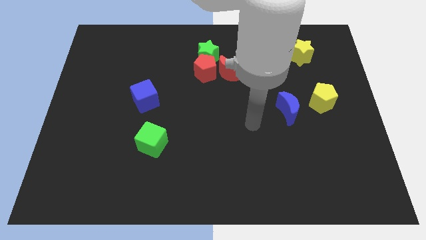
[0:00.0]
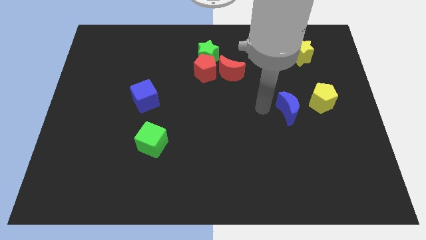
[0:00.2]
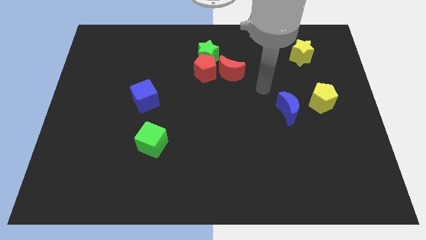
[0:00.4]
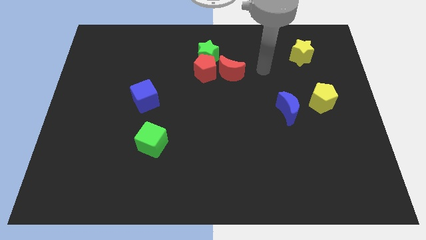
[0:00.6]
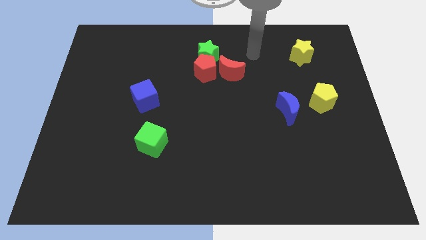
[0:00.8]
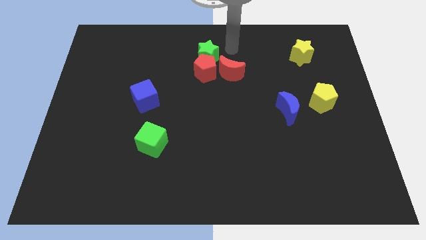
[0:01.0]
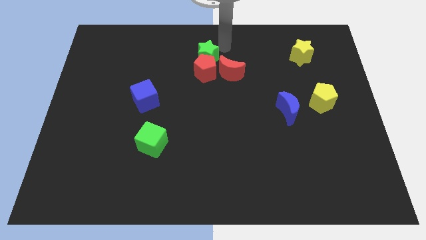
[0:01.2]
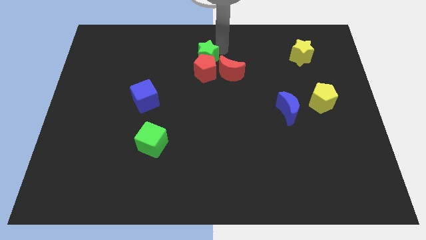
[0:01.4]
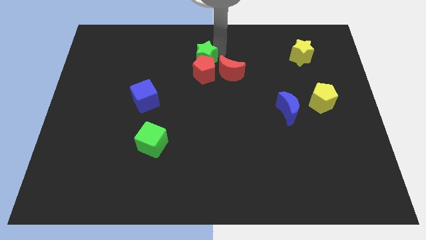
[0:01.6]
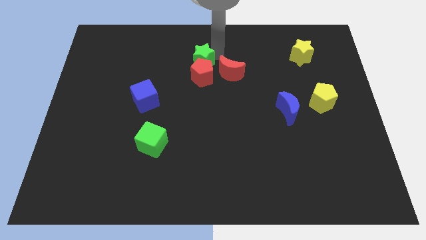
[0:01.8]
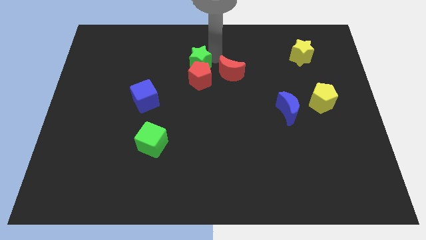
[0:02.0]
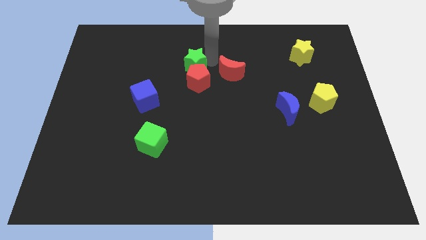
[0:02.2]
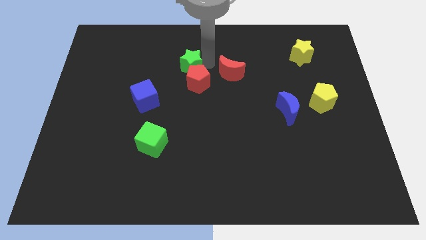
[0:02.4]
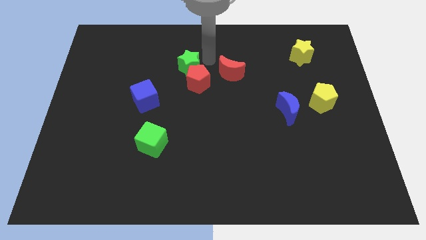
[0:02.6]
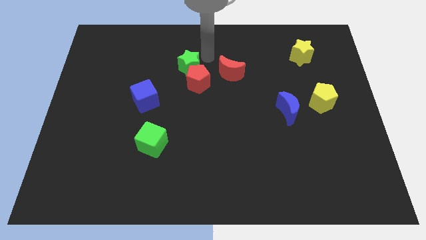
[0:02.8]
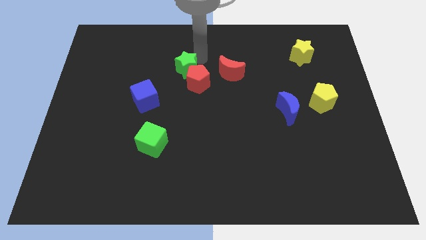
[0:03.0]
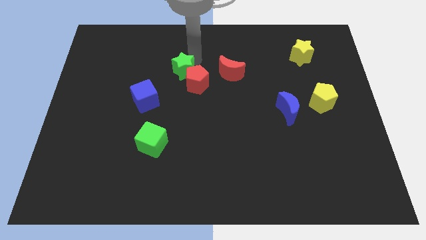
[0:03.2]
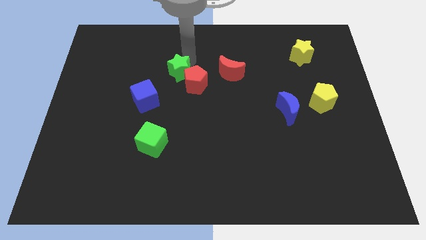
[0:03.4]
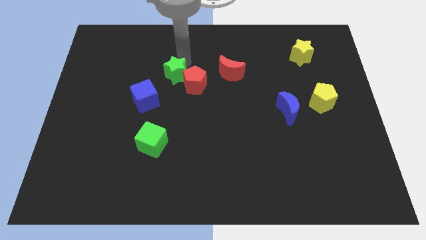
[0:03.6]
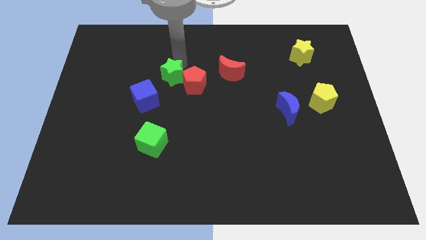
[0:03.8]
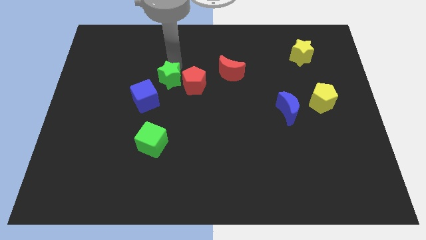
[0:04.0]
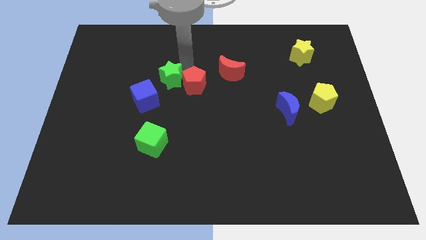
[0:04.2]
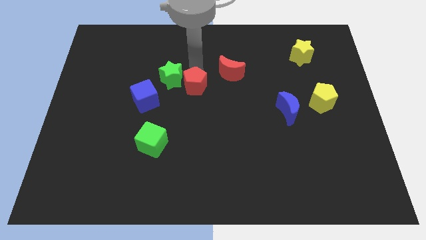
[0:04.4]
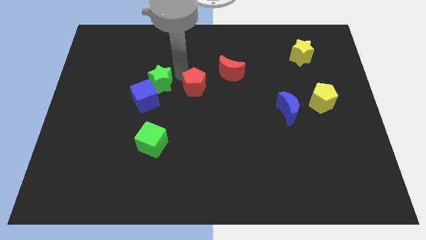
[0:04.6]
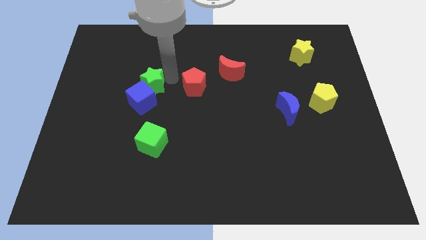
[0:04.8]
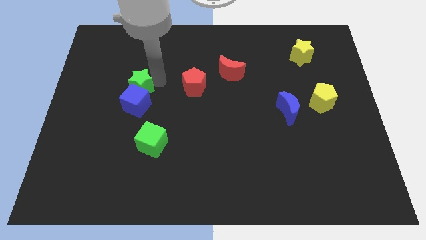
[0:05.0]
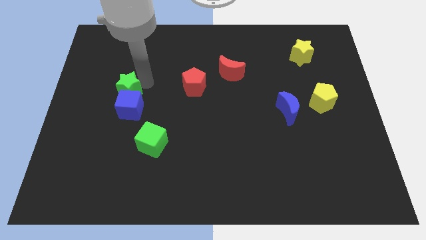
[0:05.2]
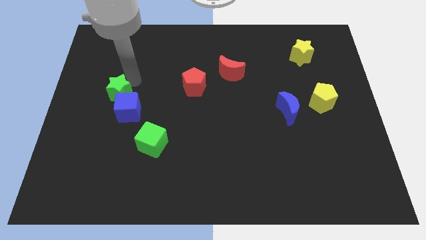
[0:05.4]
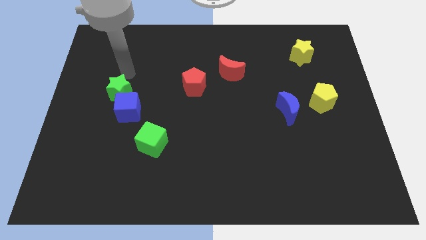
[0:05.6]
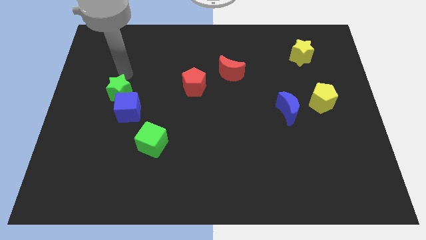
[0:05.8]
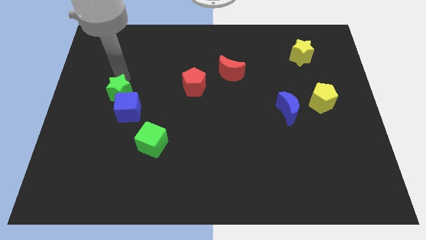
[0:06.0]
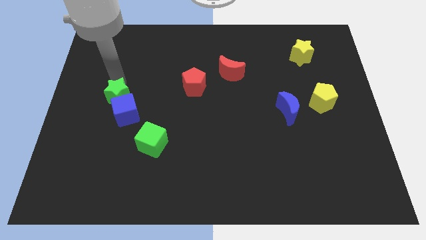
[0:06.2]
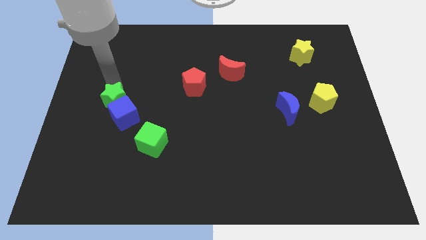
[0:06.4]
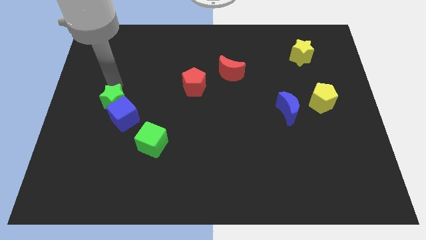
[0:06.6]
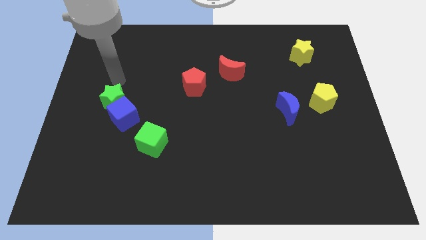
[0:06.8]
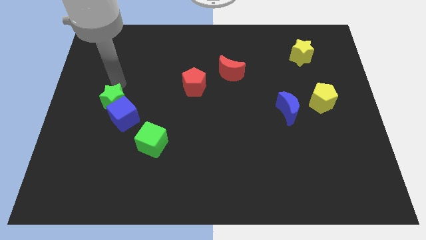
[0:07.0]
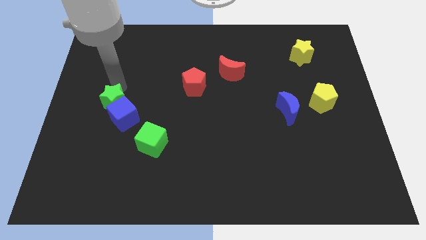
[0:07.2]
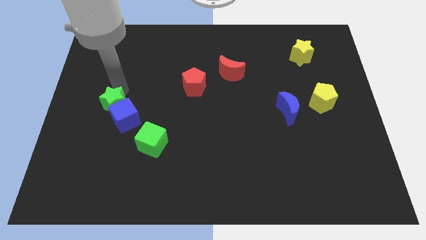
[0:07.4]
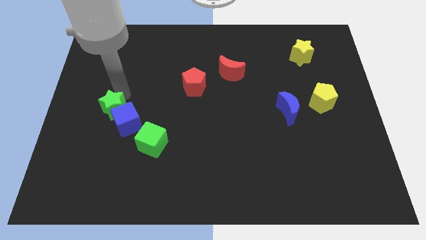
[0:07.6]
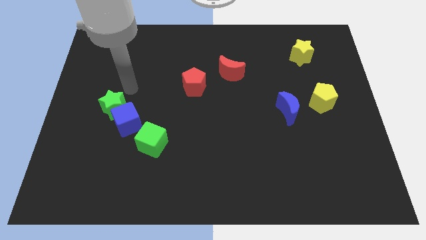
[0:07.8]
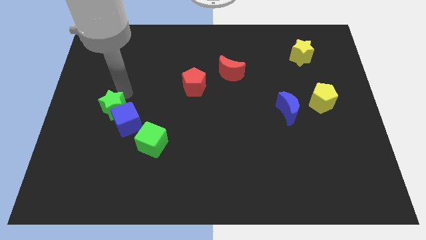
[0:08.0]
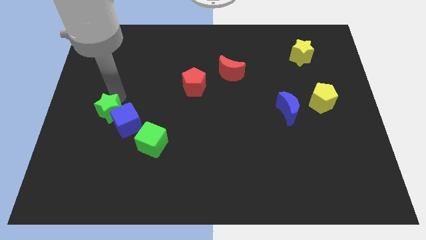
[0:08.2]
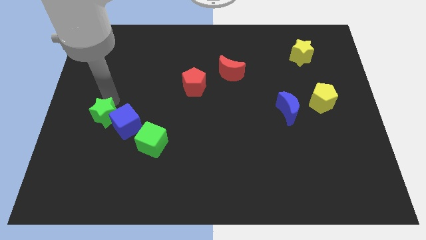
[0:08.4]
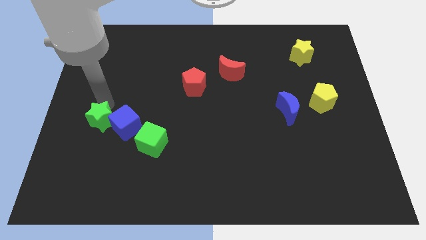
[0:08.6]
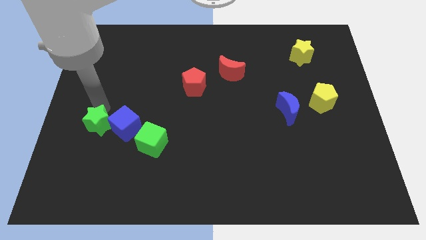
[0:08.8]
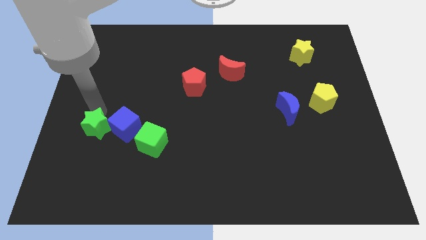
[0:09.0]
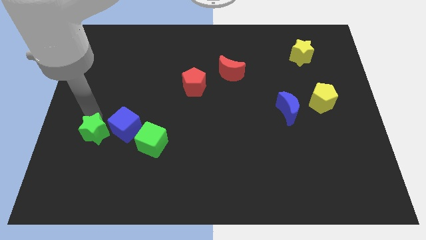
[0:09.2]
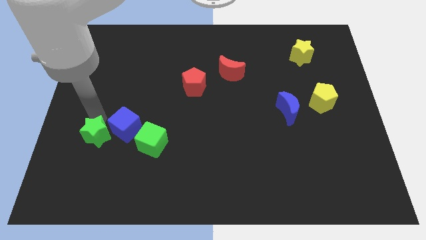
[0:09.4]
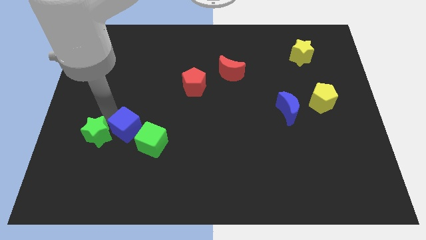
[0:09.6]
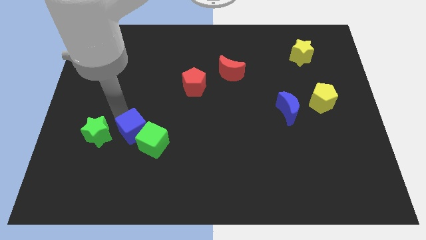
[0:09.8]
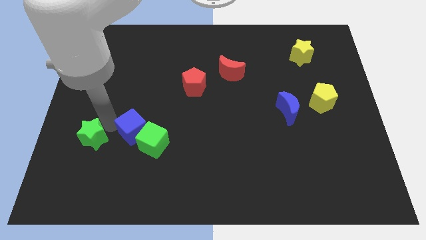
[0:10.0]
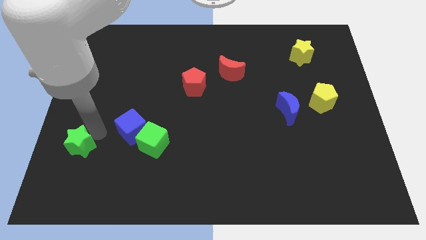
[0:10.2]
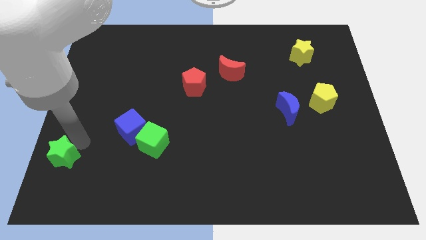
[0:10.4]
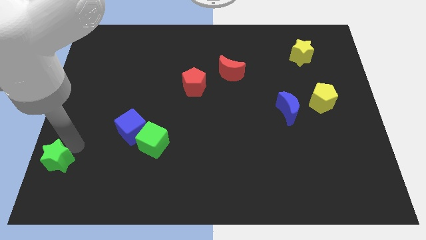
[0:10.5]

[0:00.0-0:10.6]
move the green star to the bottom left

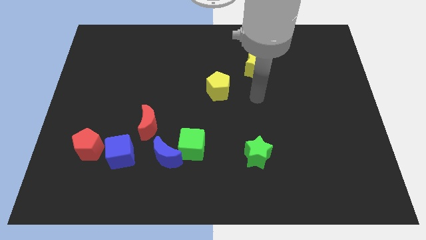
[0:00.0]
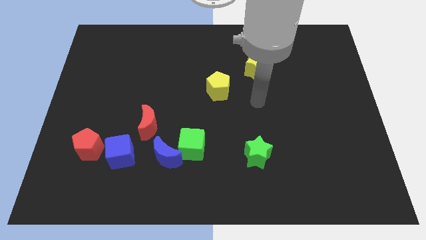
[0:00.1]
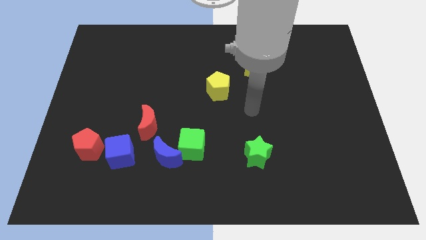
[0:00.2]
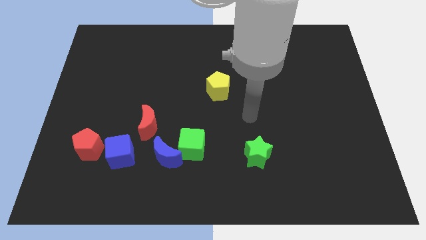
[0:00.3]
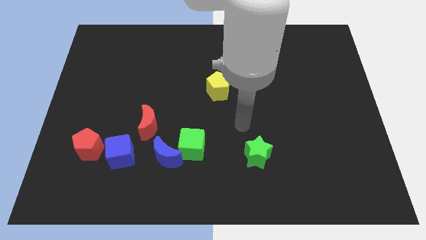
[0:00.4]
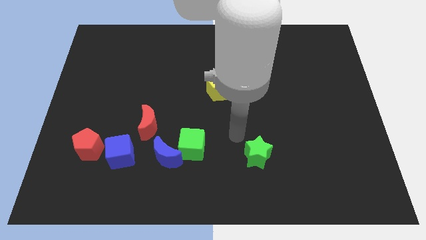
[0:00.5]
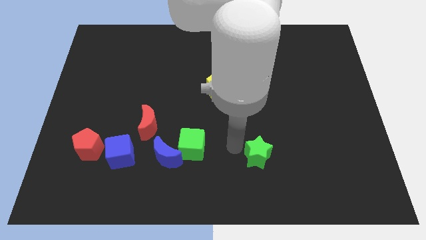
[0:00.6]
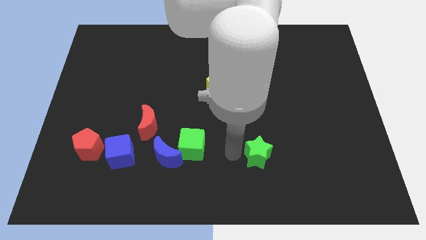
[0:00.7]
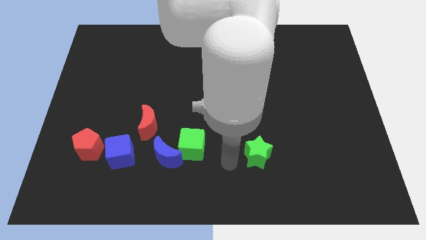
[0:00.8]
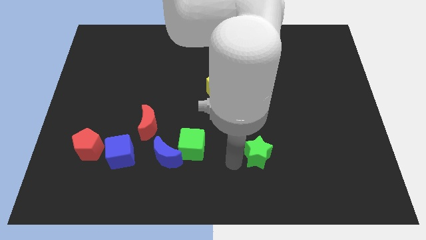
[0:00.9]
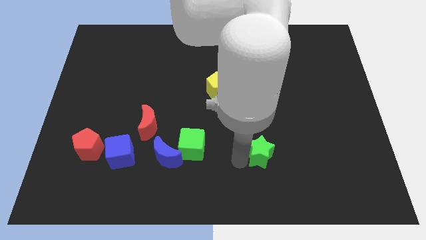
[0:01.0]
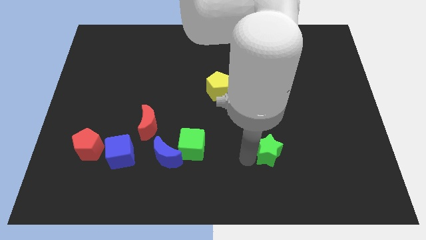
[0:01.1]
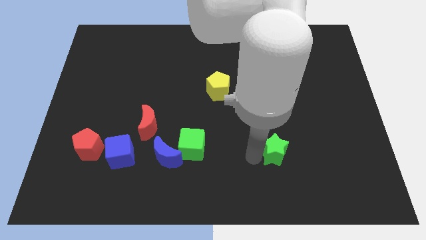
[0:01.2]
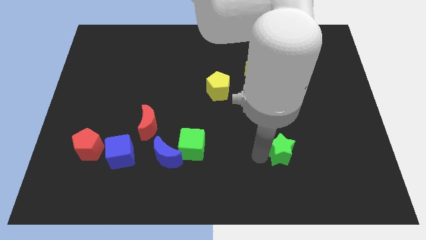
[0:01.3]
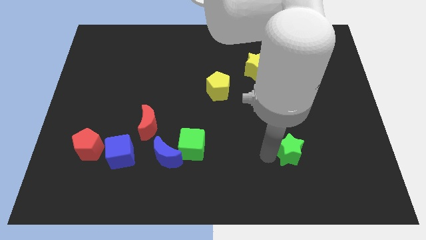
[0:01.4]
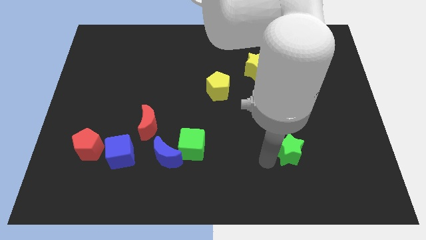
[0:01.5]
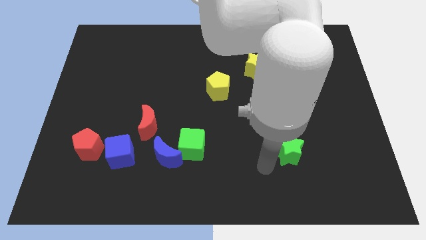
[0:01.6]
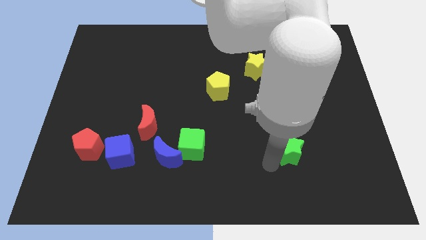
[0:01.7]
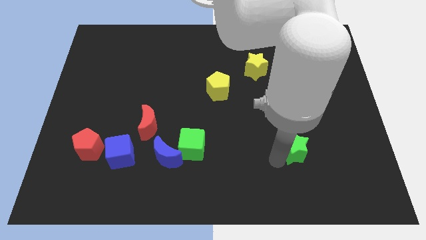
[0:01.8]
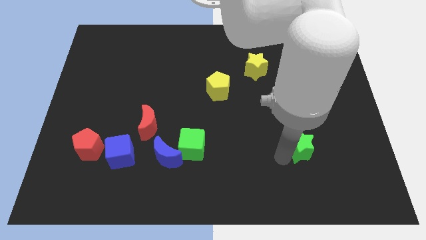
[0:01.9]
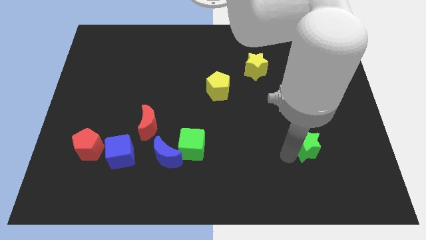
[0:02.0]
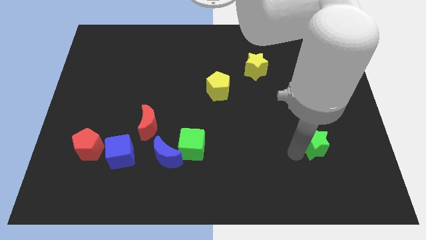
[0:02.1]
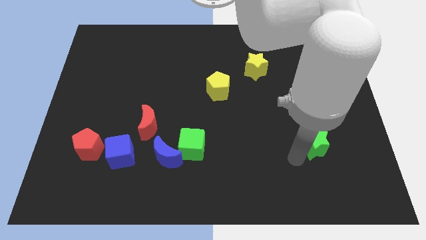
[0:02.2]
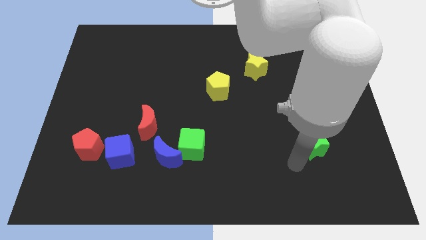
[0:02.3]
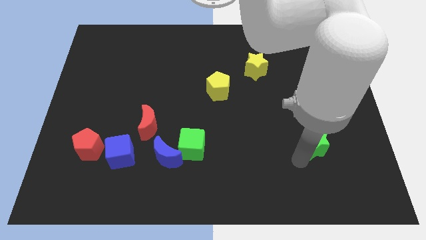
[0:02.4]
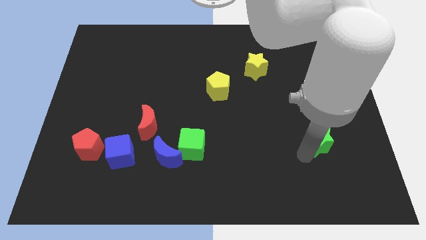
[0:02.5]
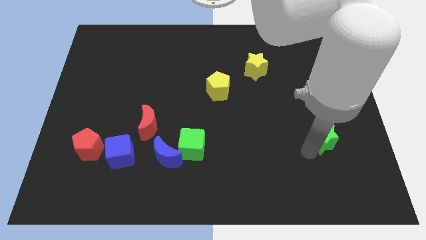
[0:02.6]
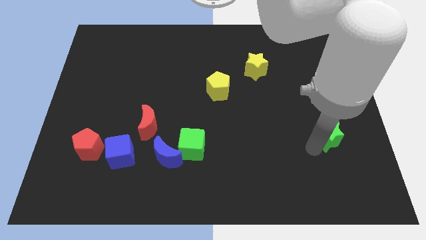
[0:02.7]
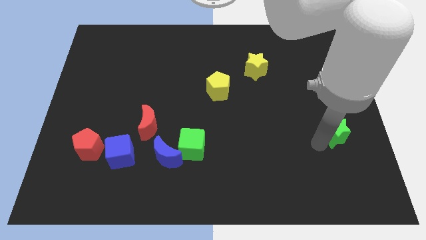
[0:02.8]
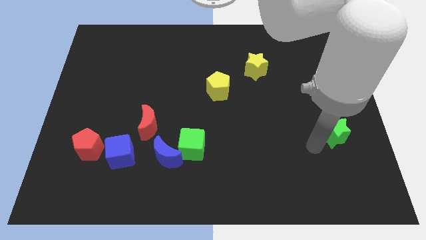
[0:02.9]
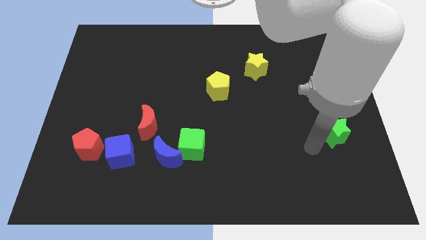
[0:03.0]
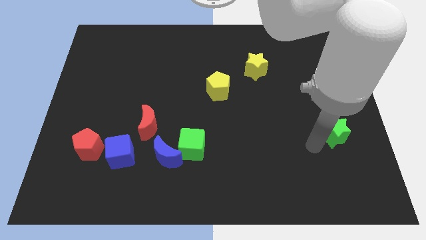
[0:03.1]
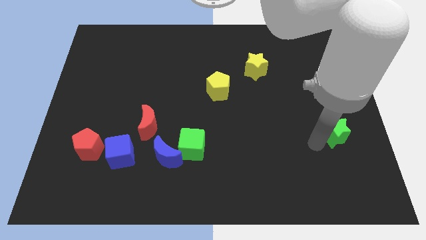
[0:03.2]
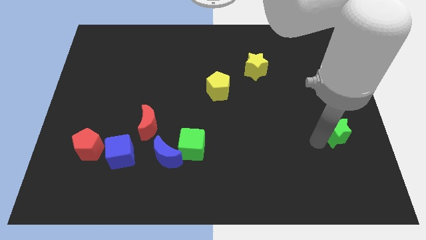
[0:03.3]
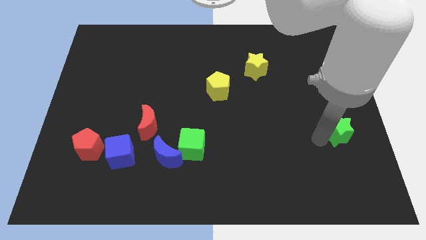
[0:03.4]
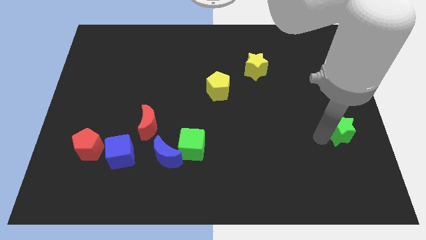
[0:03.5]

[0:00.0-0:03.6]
put the green star to the right side
